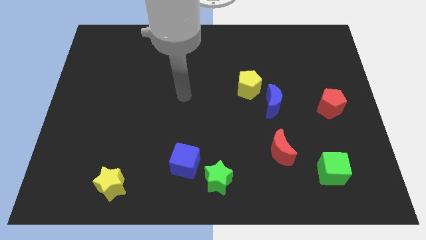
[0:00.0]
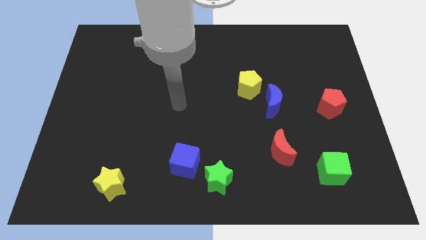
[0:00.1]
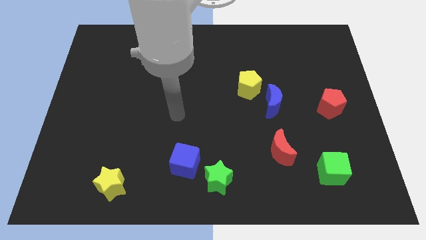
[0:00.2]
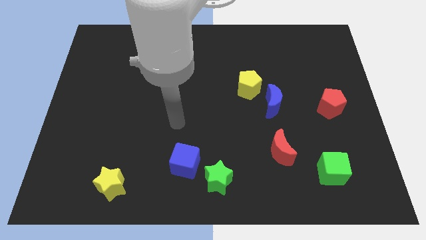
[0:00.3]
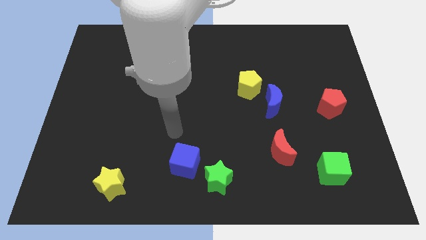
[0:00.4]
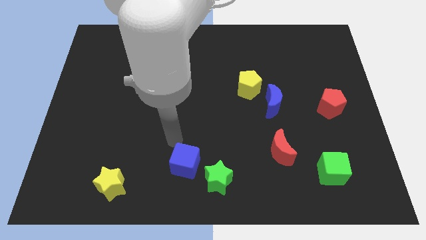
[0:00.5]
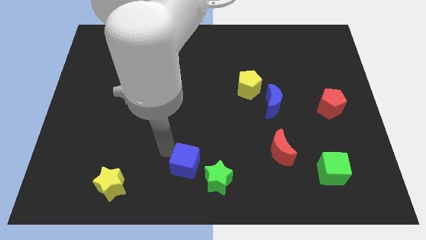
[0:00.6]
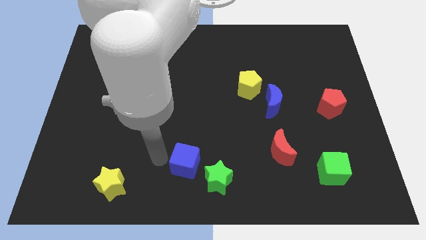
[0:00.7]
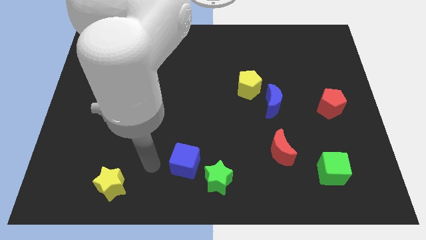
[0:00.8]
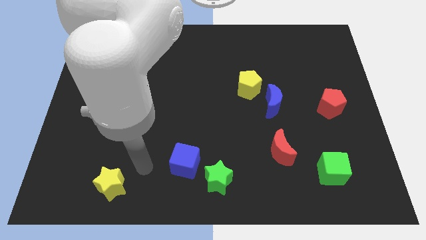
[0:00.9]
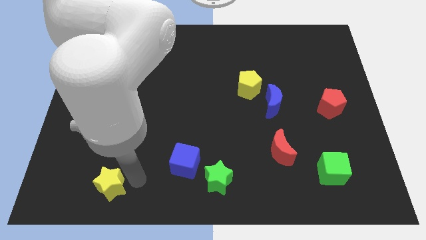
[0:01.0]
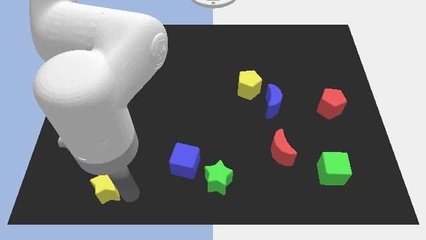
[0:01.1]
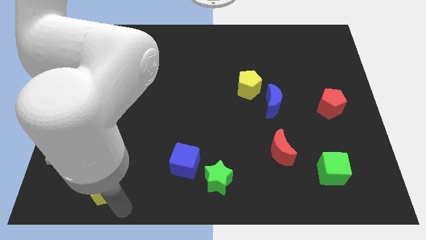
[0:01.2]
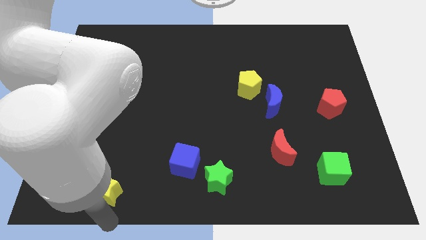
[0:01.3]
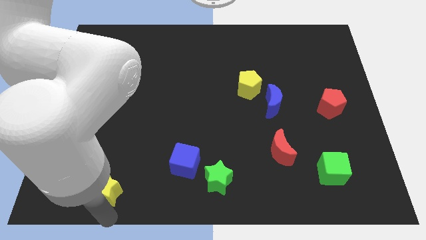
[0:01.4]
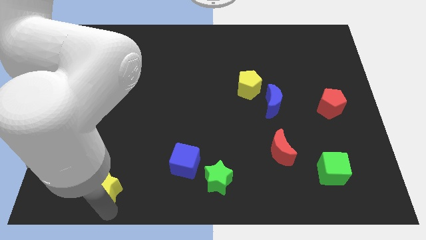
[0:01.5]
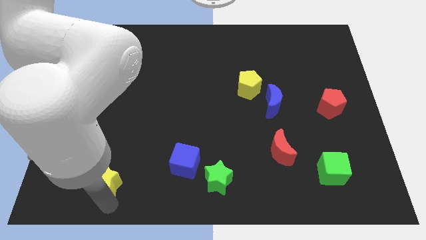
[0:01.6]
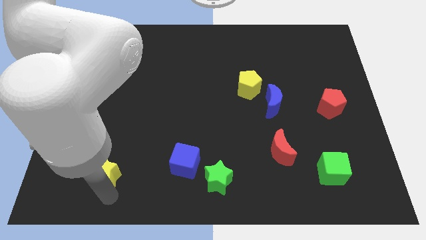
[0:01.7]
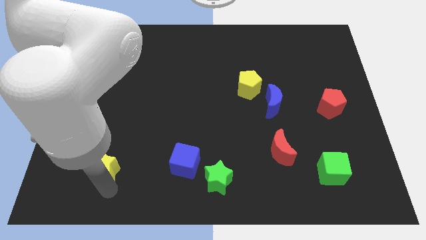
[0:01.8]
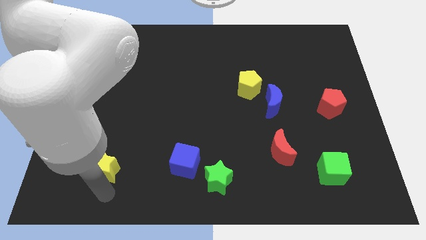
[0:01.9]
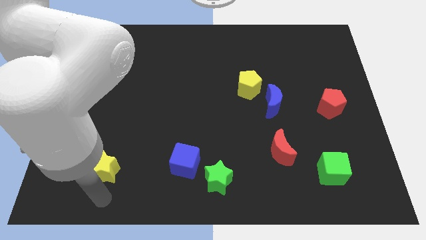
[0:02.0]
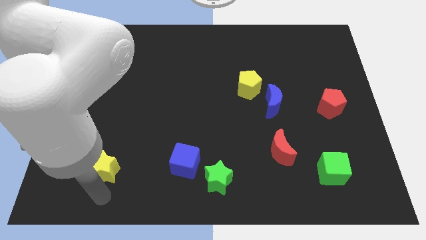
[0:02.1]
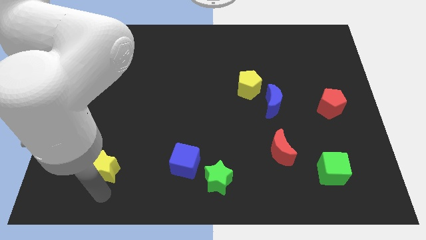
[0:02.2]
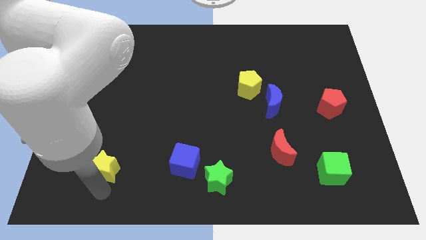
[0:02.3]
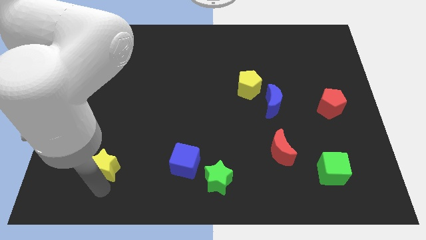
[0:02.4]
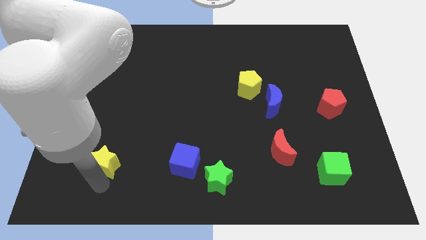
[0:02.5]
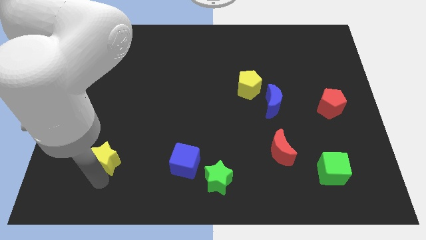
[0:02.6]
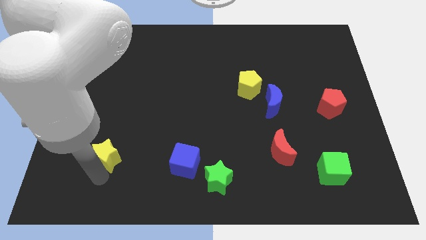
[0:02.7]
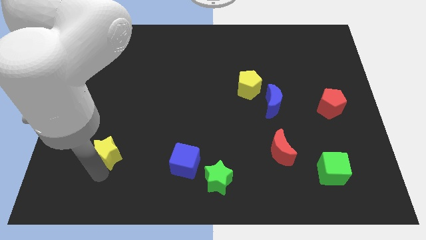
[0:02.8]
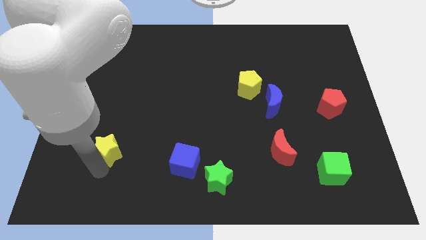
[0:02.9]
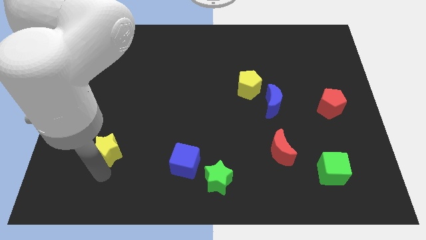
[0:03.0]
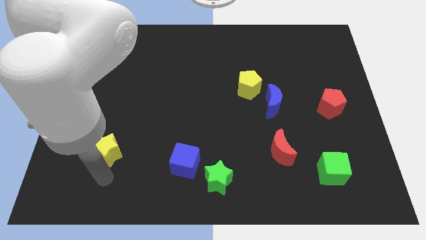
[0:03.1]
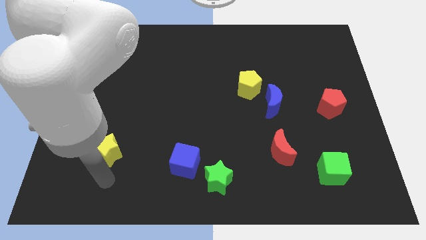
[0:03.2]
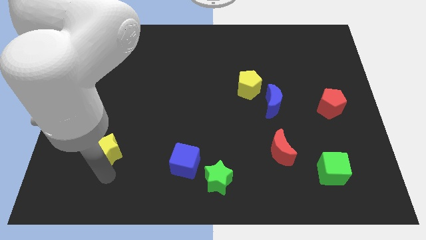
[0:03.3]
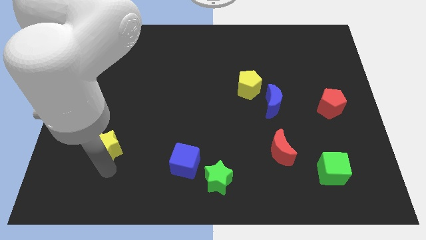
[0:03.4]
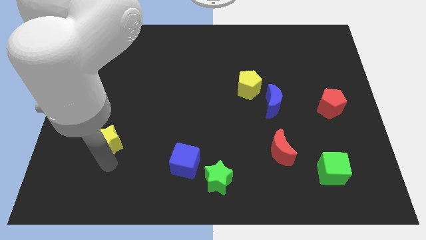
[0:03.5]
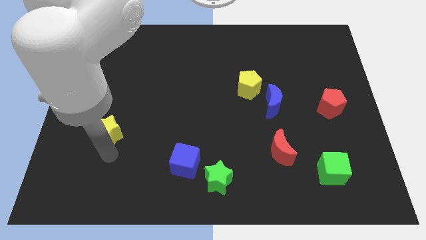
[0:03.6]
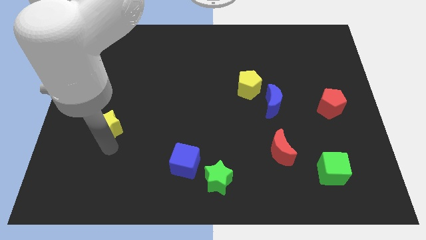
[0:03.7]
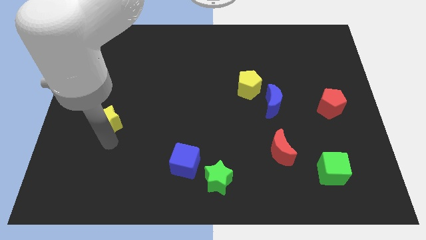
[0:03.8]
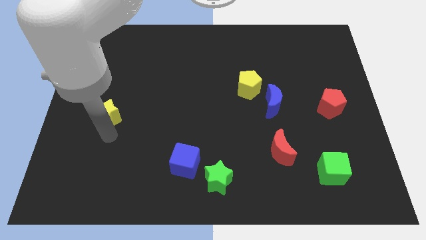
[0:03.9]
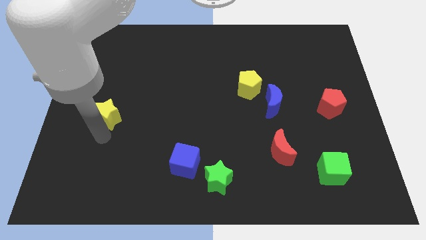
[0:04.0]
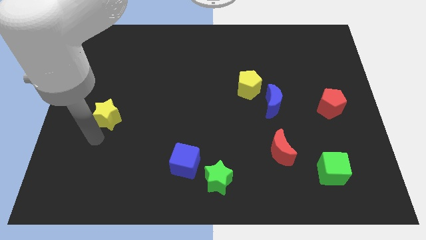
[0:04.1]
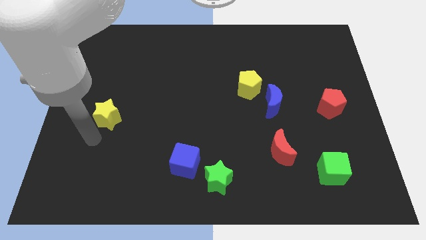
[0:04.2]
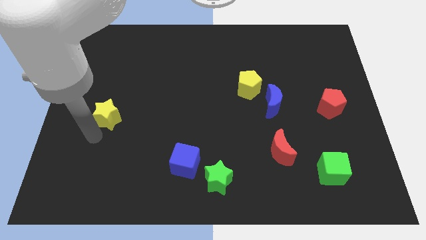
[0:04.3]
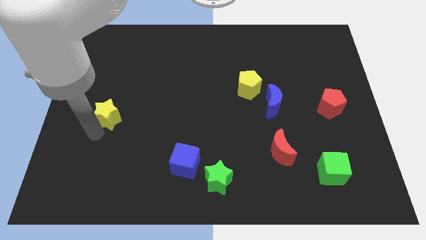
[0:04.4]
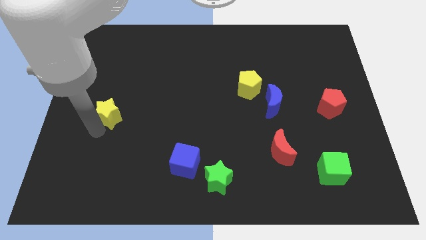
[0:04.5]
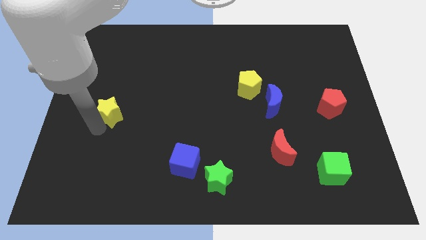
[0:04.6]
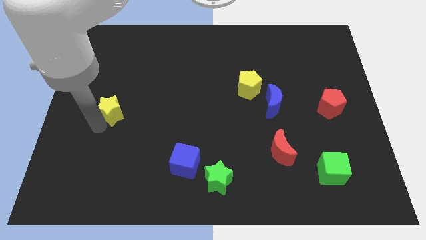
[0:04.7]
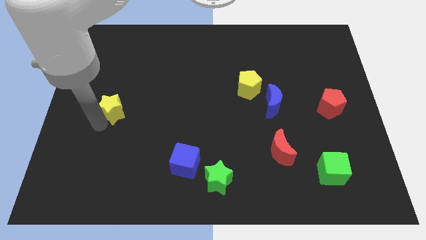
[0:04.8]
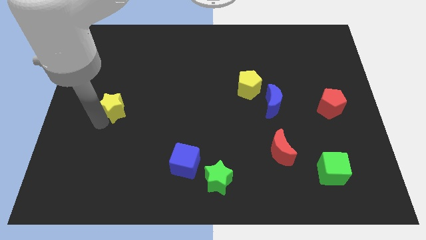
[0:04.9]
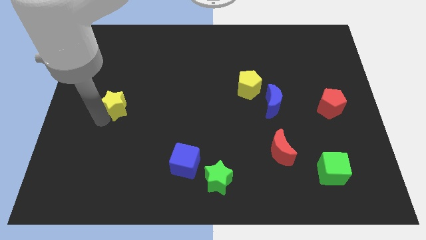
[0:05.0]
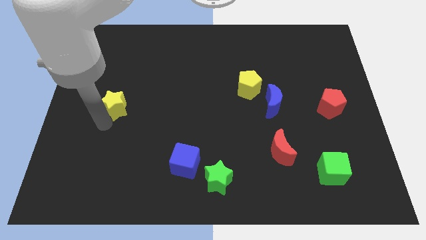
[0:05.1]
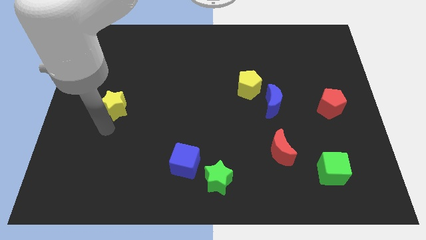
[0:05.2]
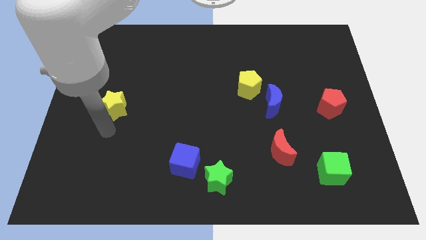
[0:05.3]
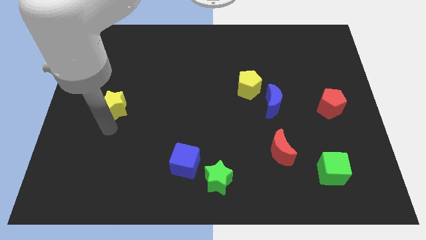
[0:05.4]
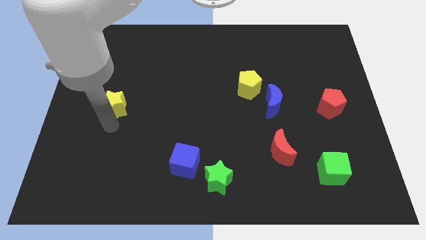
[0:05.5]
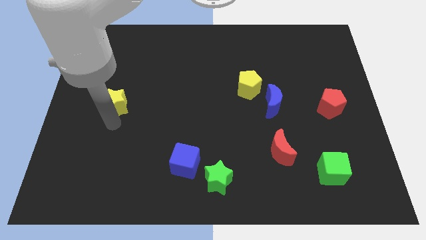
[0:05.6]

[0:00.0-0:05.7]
push the yellow star upwards

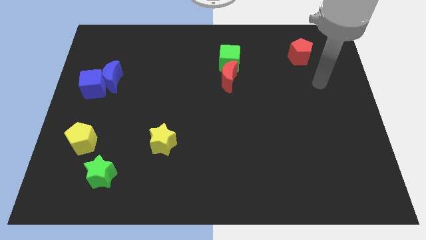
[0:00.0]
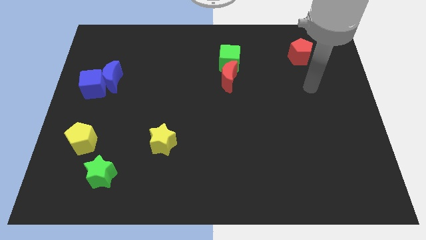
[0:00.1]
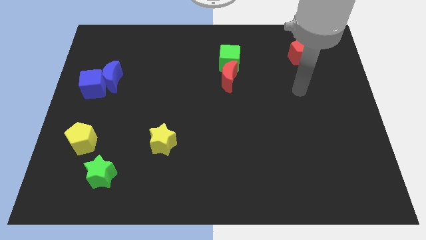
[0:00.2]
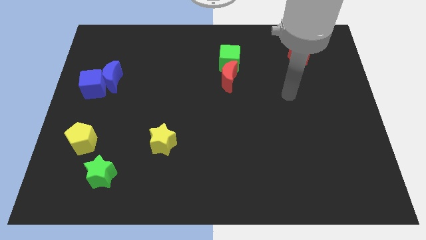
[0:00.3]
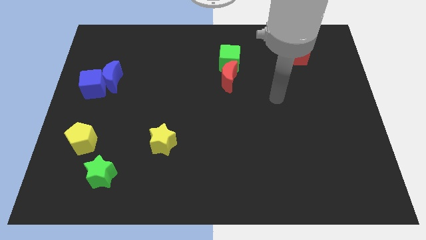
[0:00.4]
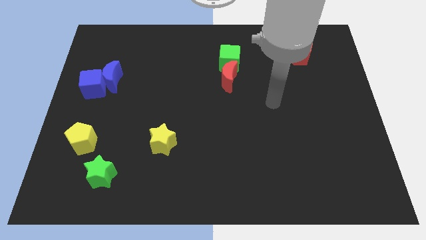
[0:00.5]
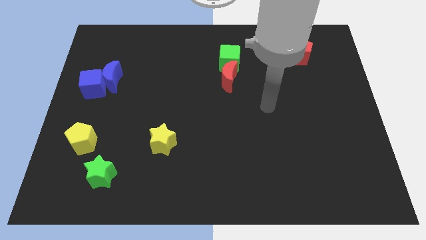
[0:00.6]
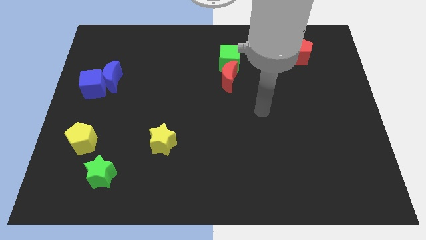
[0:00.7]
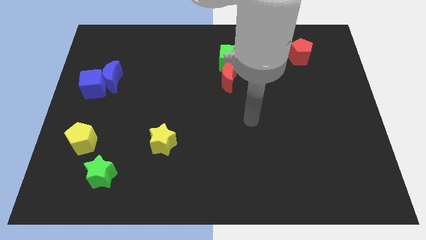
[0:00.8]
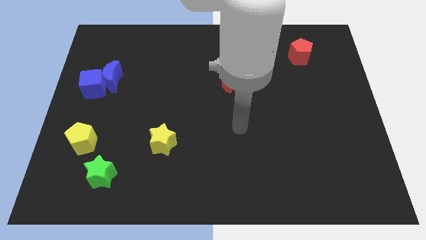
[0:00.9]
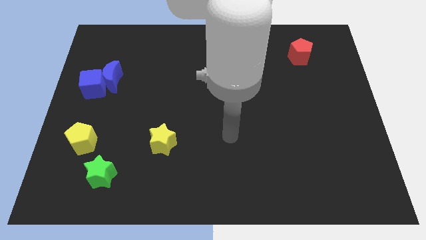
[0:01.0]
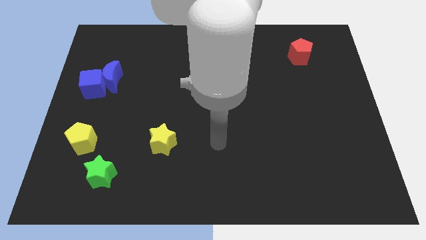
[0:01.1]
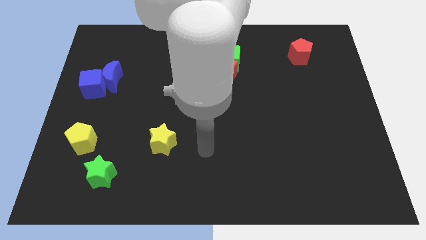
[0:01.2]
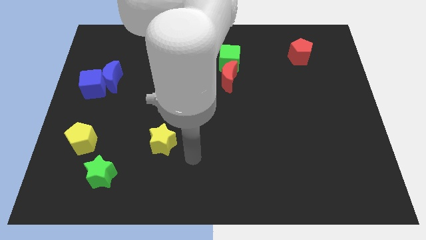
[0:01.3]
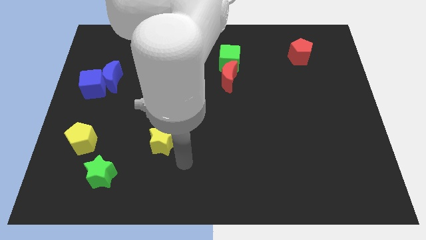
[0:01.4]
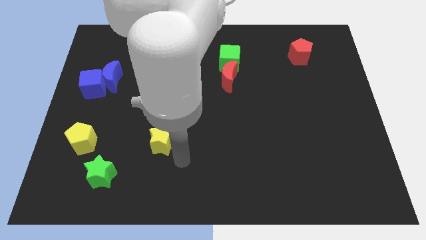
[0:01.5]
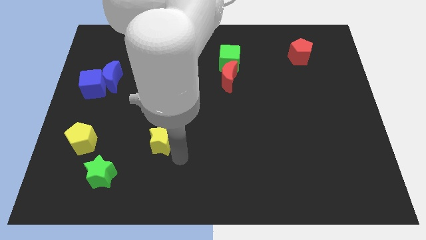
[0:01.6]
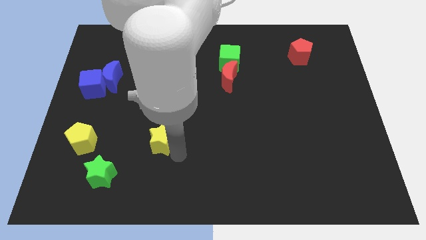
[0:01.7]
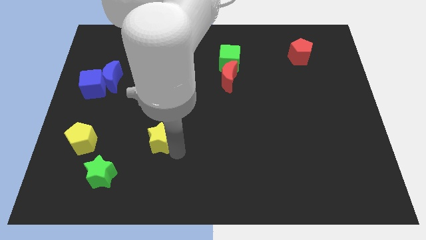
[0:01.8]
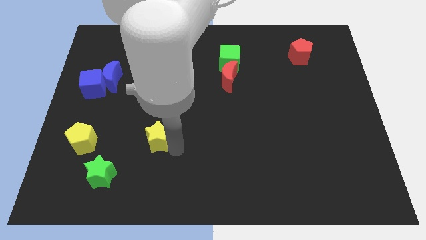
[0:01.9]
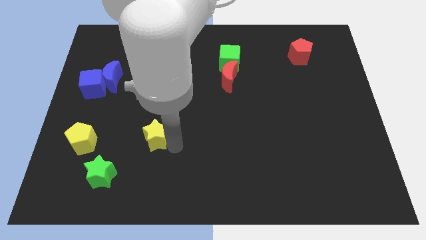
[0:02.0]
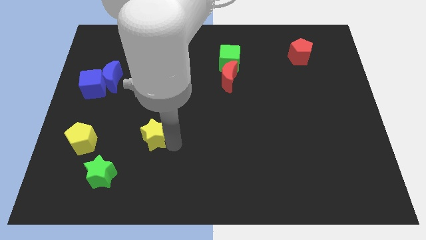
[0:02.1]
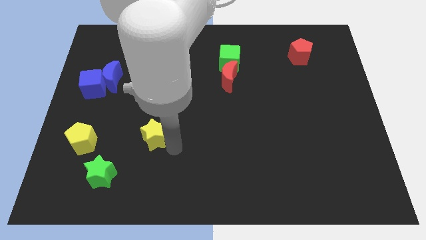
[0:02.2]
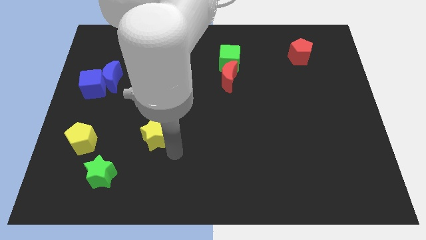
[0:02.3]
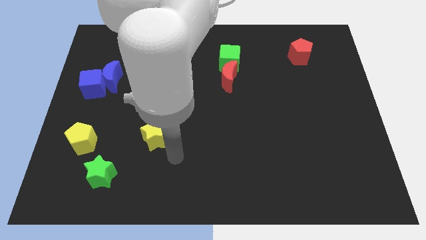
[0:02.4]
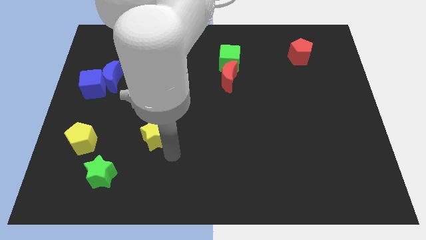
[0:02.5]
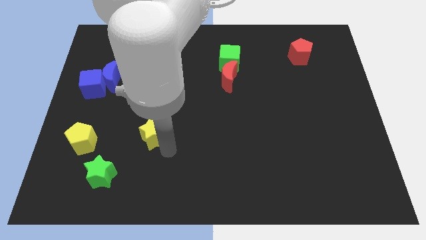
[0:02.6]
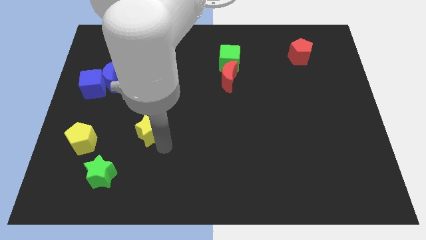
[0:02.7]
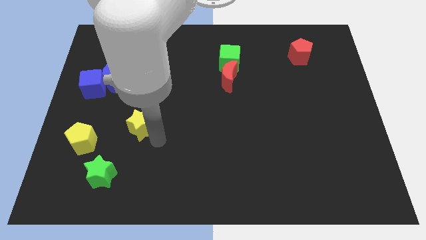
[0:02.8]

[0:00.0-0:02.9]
slide the yellow star up and left diagonally a bit
